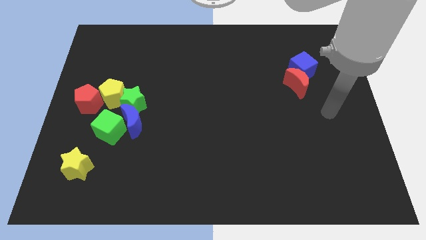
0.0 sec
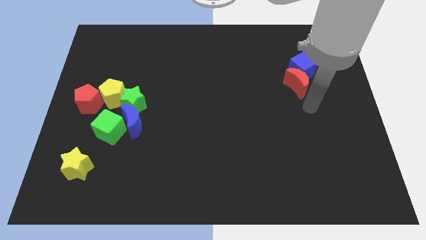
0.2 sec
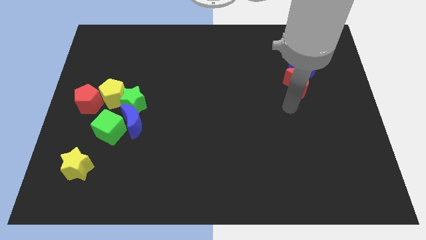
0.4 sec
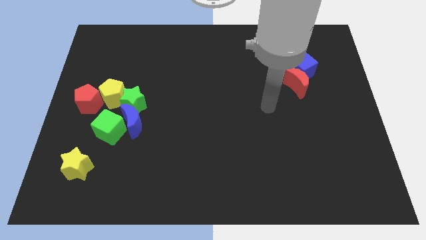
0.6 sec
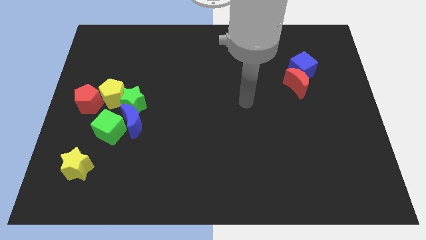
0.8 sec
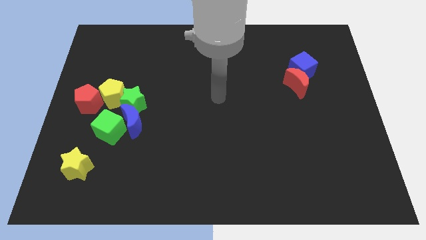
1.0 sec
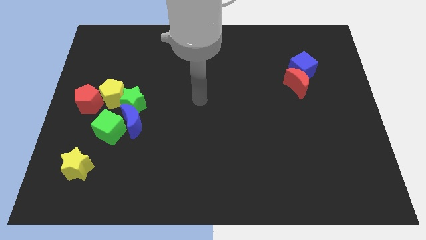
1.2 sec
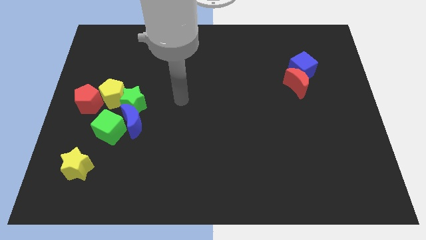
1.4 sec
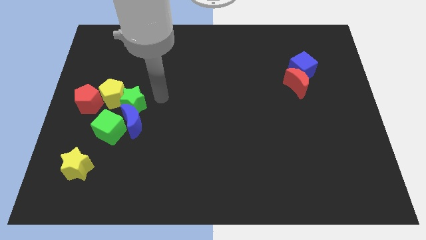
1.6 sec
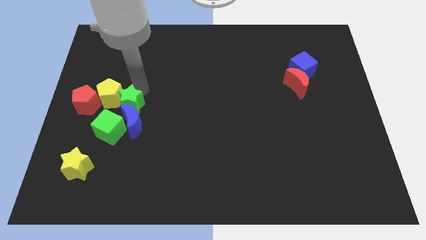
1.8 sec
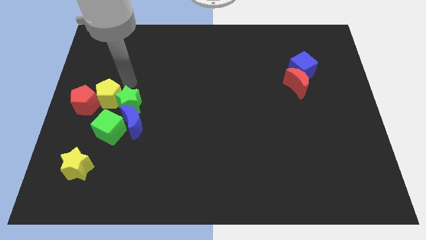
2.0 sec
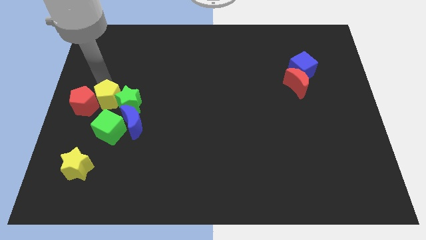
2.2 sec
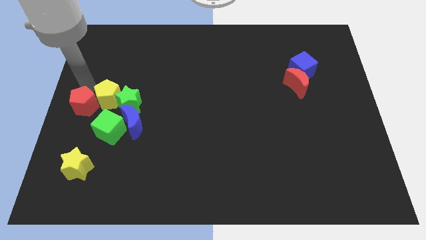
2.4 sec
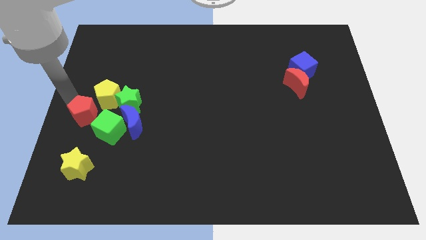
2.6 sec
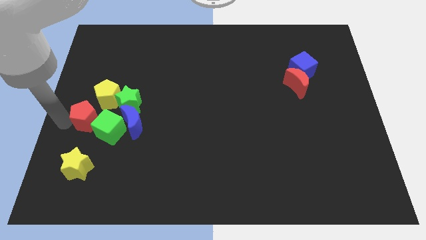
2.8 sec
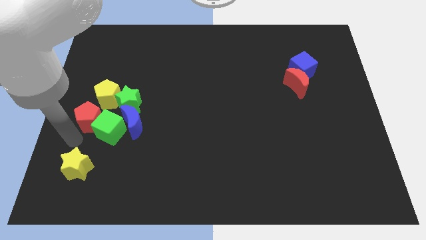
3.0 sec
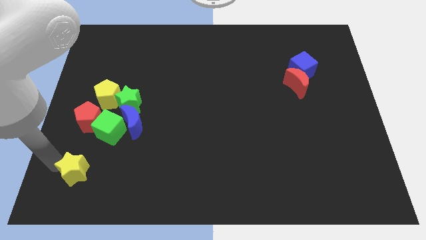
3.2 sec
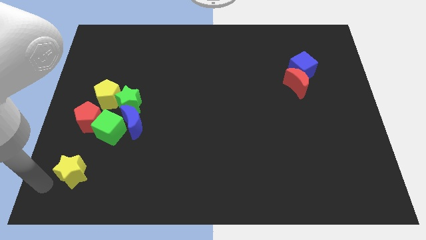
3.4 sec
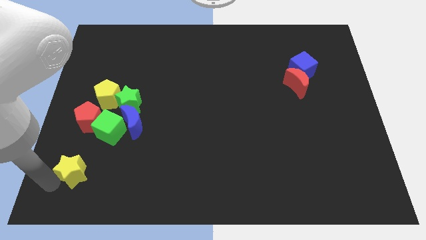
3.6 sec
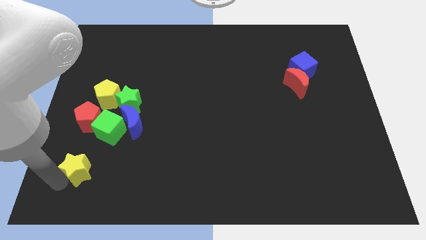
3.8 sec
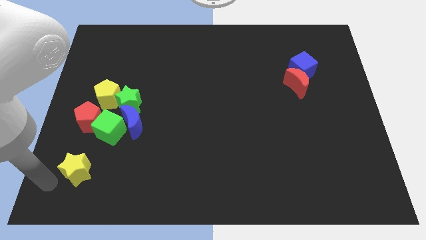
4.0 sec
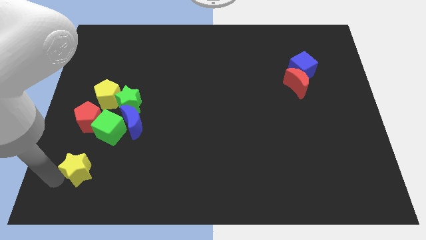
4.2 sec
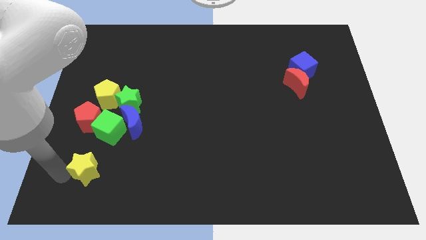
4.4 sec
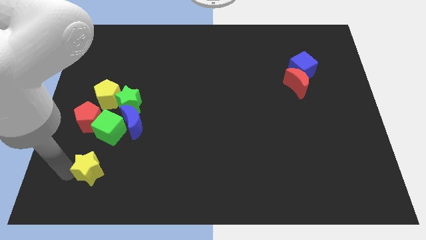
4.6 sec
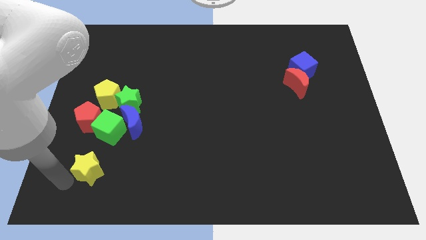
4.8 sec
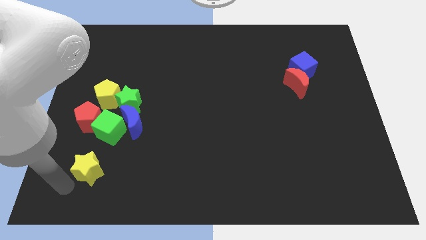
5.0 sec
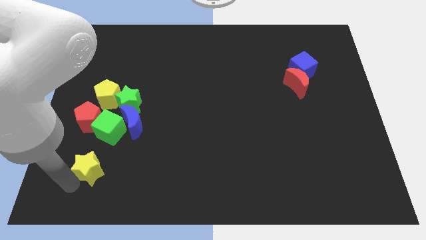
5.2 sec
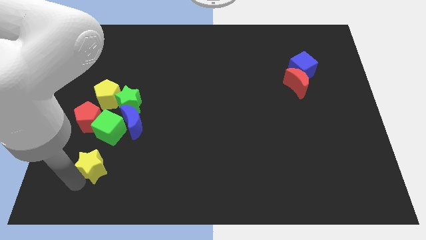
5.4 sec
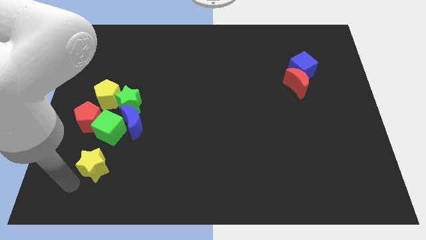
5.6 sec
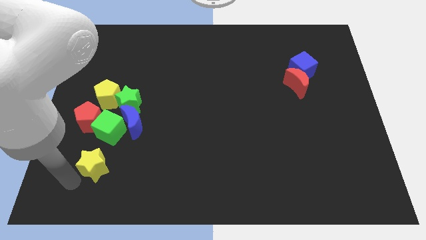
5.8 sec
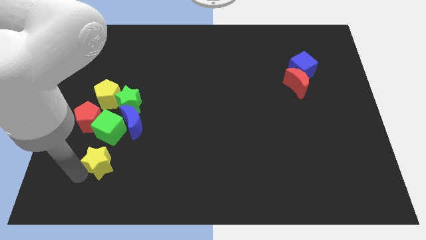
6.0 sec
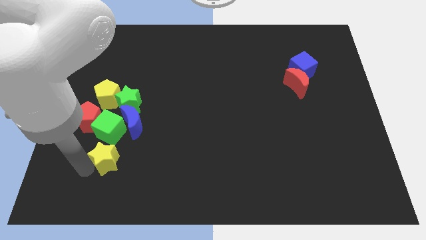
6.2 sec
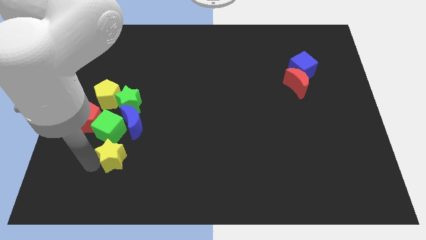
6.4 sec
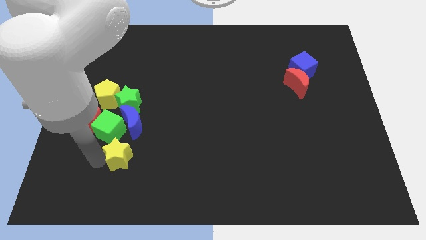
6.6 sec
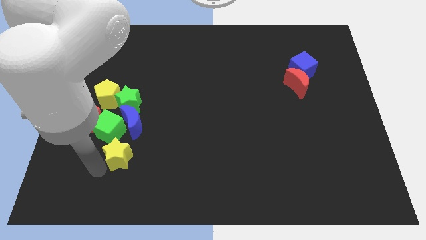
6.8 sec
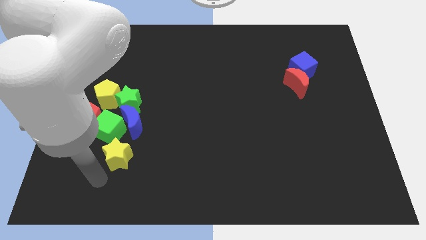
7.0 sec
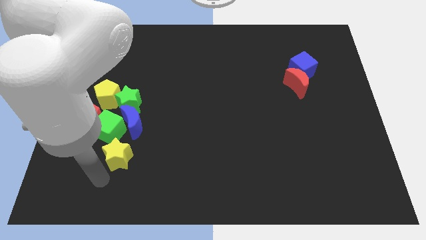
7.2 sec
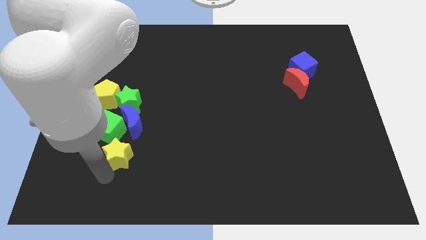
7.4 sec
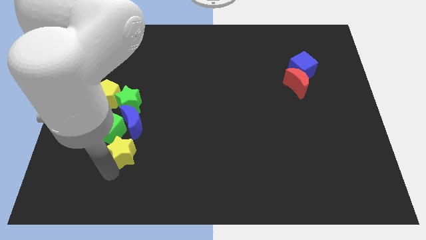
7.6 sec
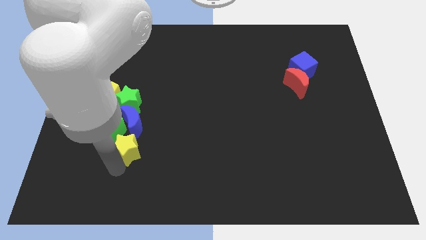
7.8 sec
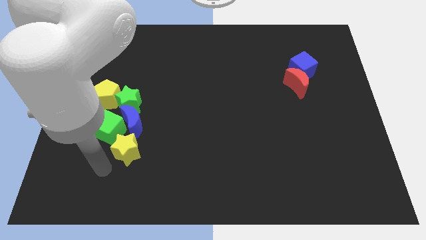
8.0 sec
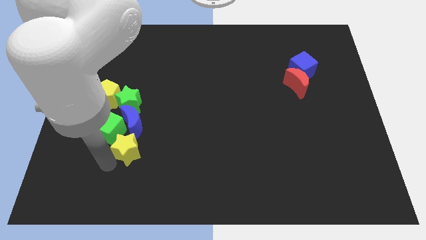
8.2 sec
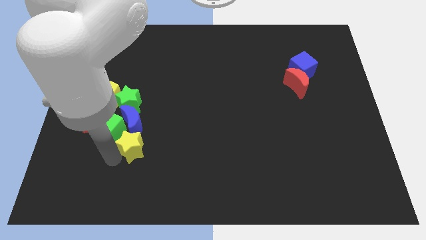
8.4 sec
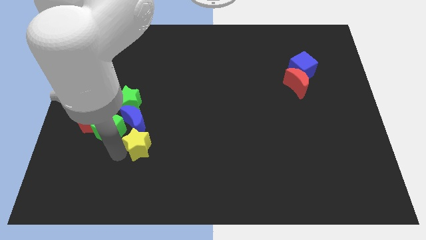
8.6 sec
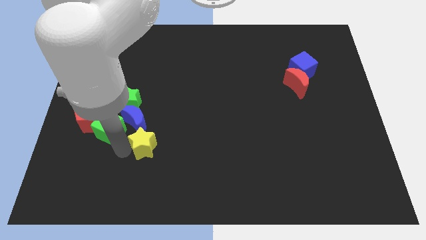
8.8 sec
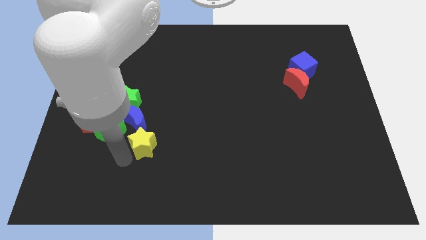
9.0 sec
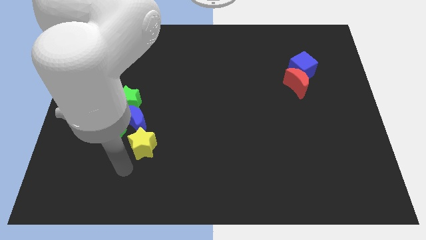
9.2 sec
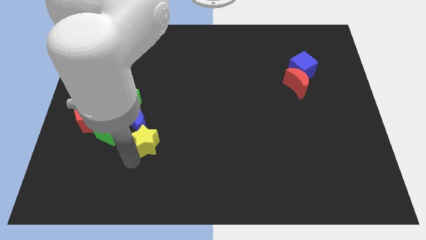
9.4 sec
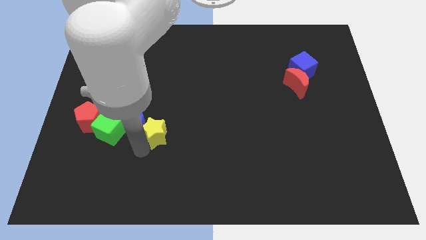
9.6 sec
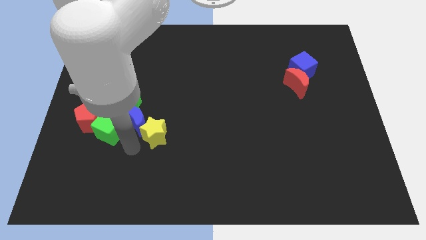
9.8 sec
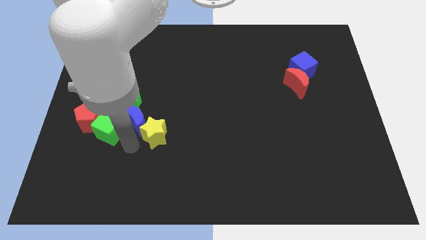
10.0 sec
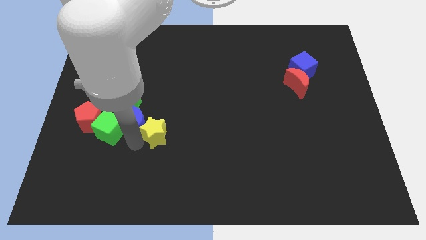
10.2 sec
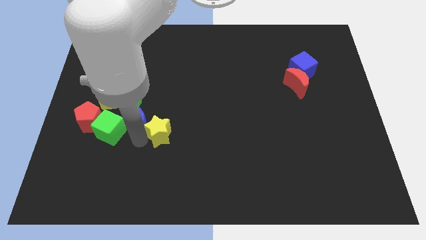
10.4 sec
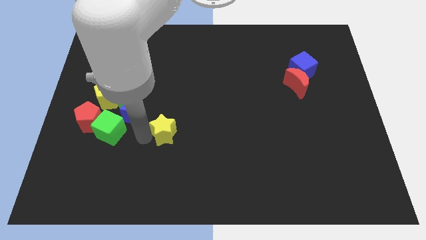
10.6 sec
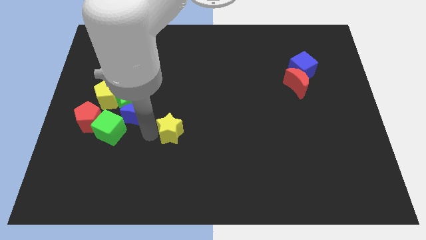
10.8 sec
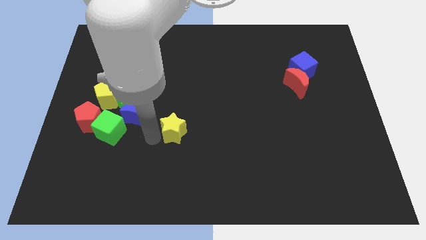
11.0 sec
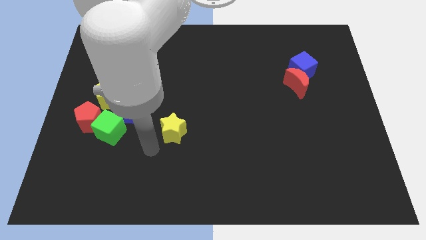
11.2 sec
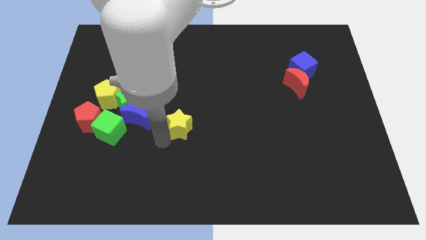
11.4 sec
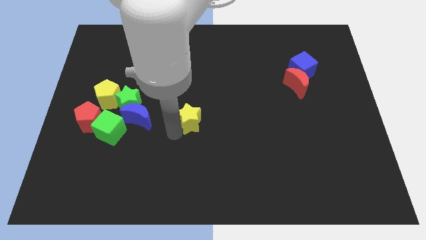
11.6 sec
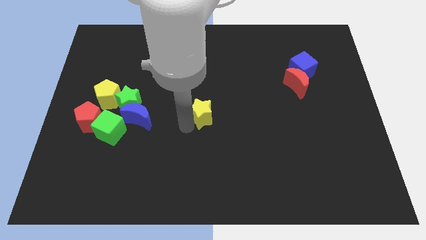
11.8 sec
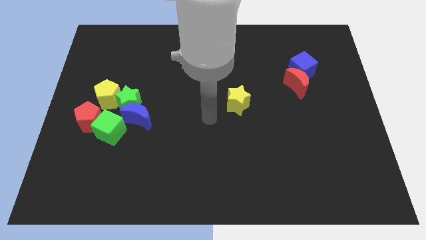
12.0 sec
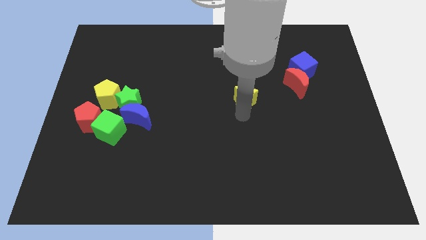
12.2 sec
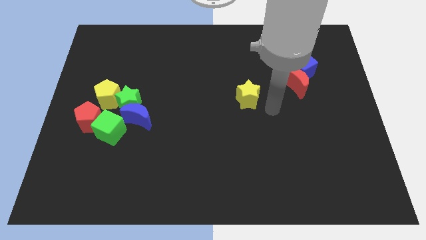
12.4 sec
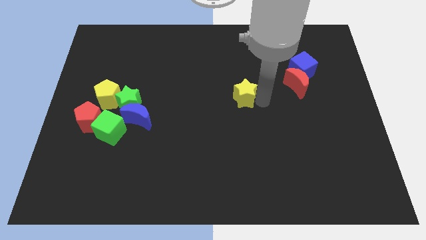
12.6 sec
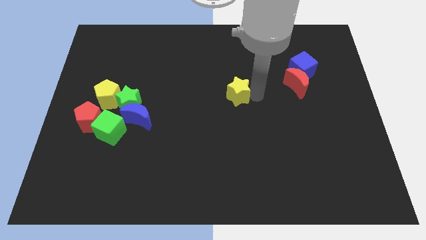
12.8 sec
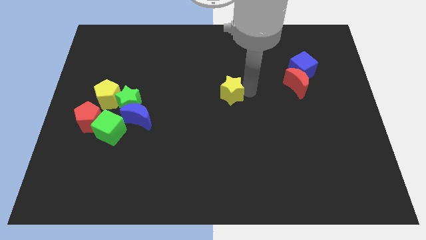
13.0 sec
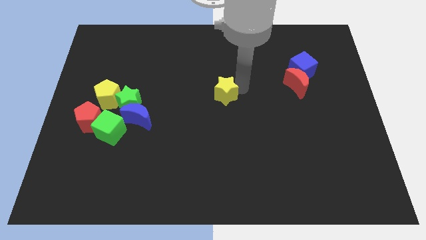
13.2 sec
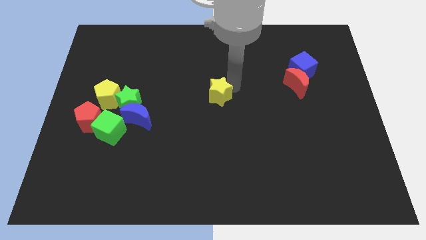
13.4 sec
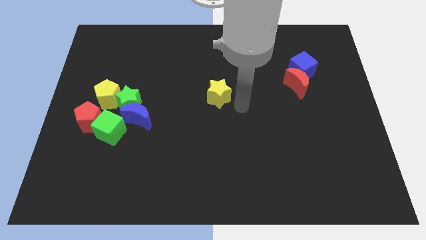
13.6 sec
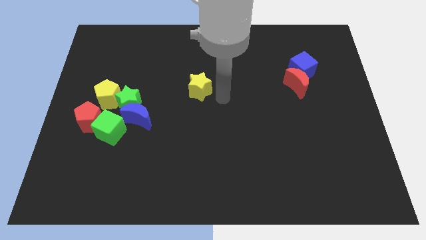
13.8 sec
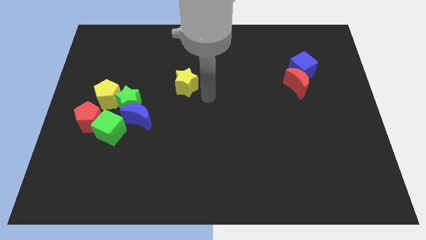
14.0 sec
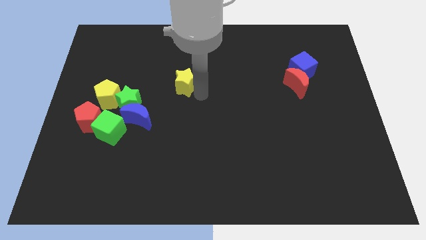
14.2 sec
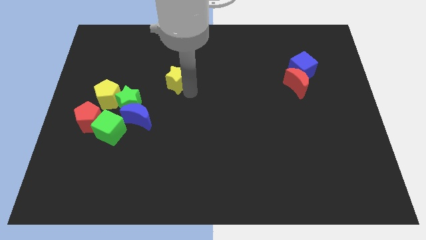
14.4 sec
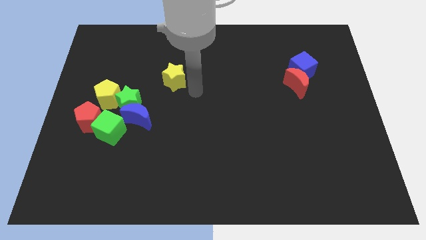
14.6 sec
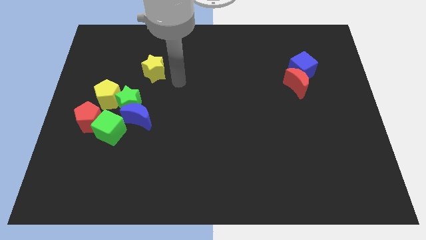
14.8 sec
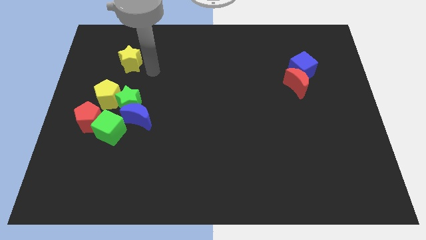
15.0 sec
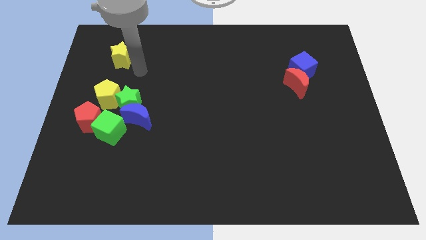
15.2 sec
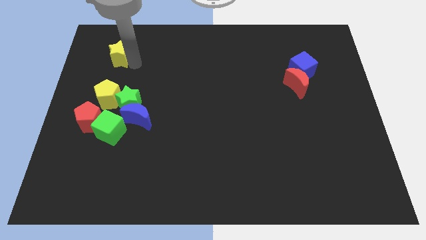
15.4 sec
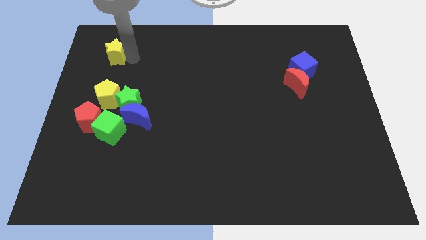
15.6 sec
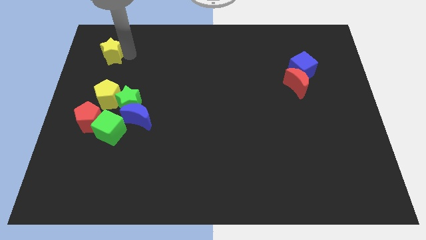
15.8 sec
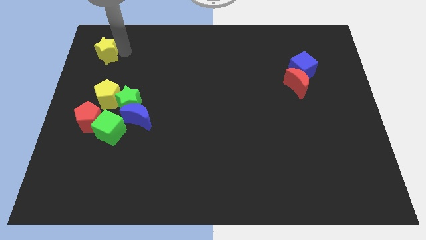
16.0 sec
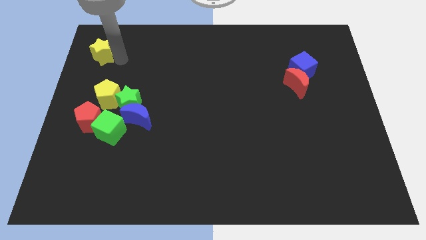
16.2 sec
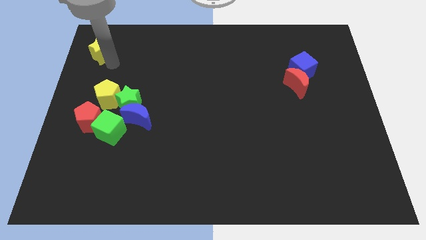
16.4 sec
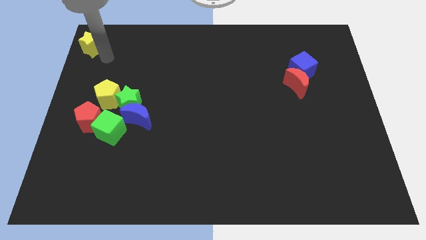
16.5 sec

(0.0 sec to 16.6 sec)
push the yellow star to the upper left corner
